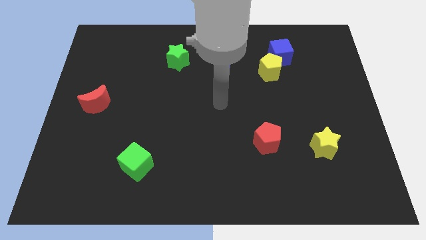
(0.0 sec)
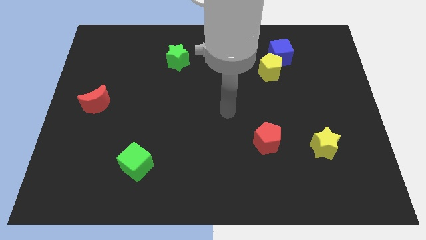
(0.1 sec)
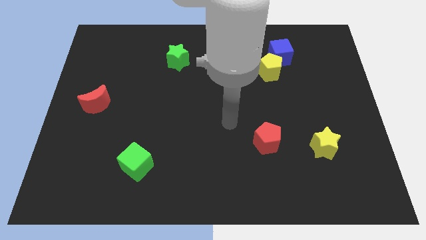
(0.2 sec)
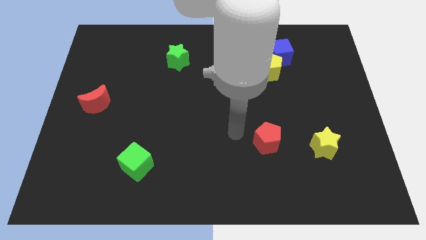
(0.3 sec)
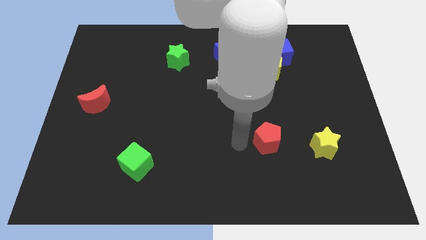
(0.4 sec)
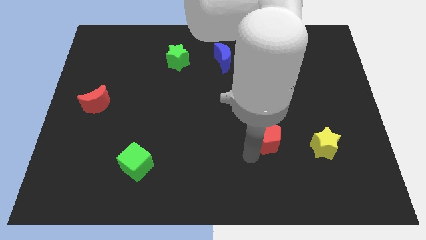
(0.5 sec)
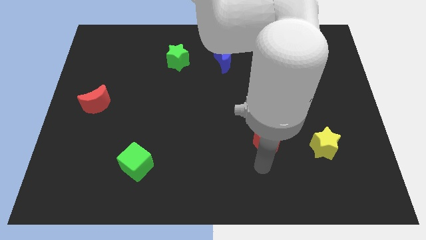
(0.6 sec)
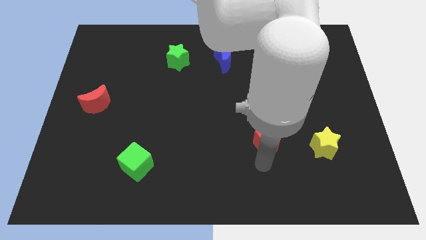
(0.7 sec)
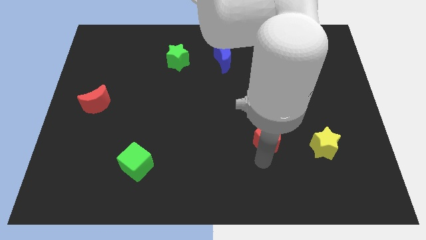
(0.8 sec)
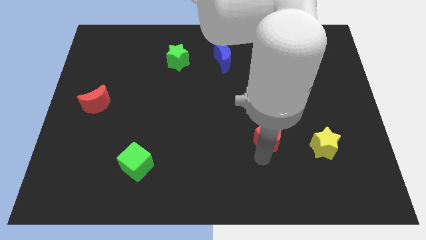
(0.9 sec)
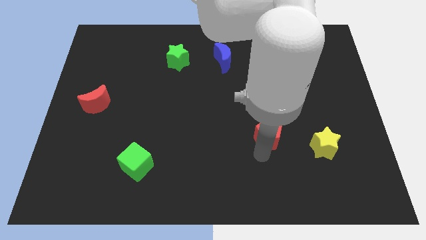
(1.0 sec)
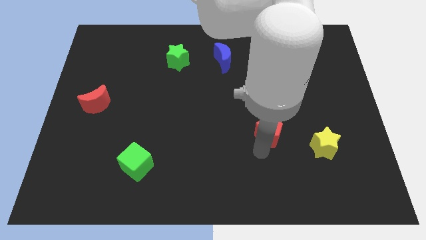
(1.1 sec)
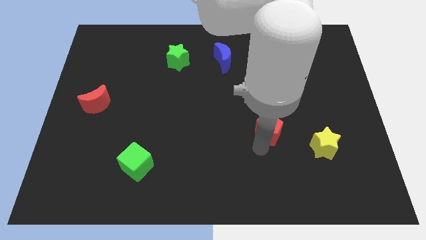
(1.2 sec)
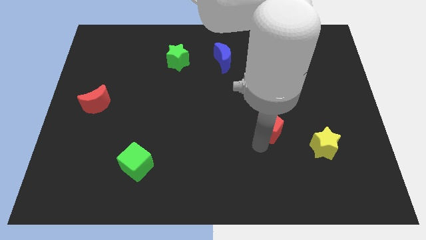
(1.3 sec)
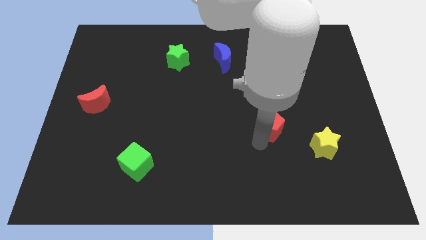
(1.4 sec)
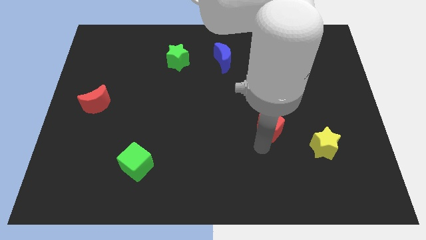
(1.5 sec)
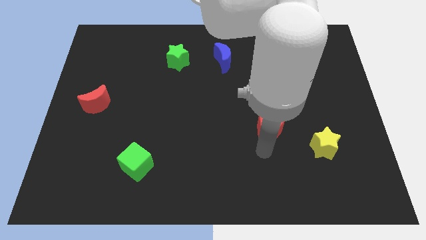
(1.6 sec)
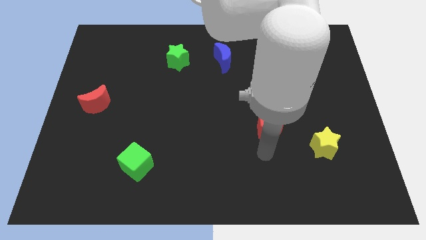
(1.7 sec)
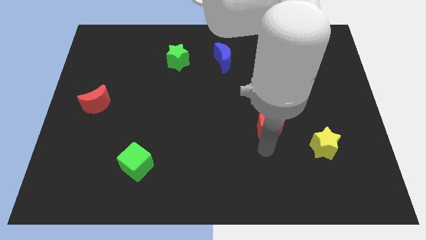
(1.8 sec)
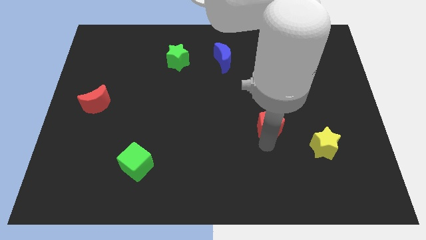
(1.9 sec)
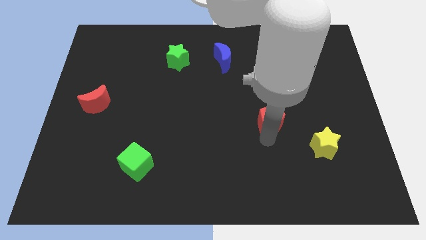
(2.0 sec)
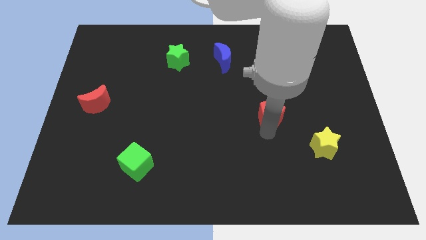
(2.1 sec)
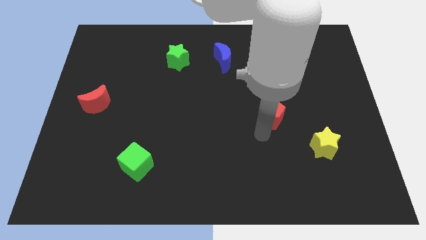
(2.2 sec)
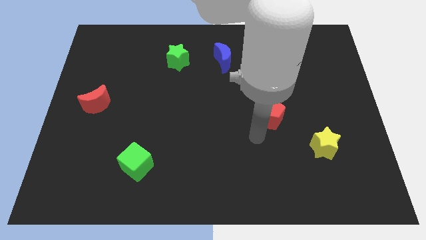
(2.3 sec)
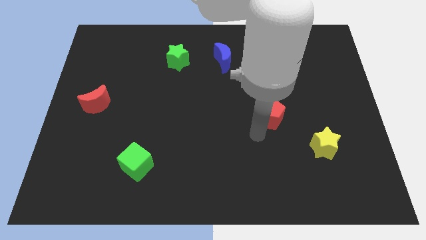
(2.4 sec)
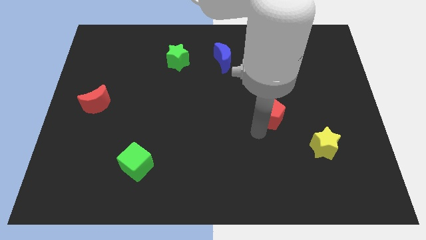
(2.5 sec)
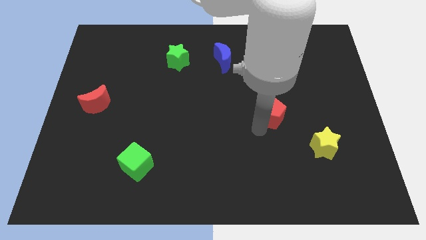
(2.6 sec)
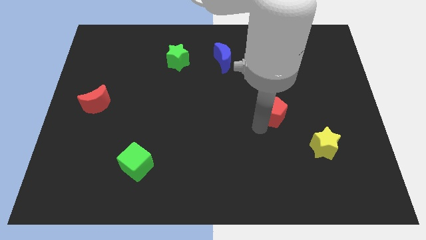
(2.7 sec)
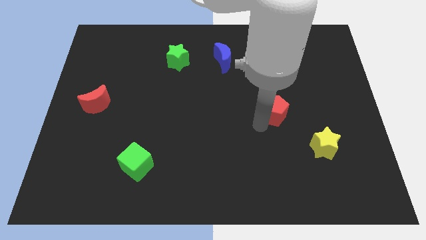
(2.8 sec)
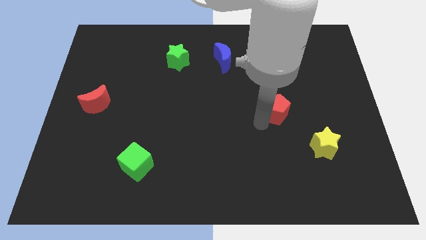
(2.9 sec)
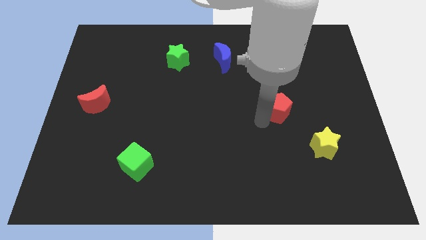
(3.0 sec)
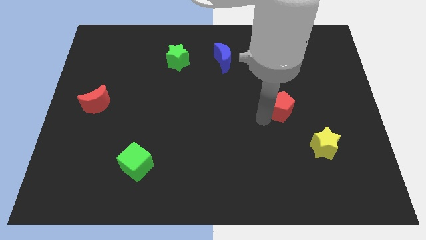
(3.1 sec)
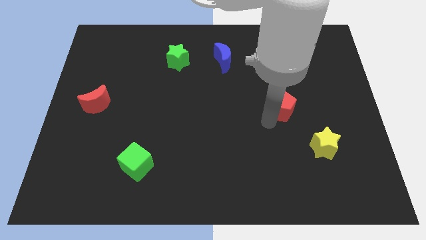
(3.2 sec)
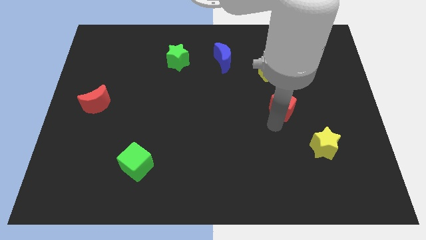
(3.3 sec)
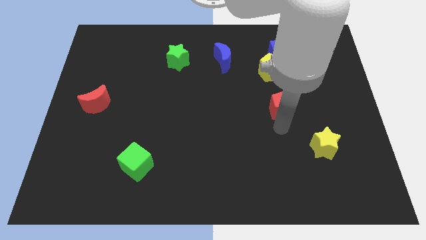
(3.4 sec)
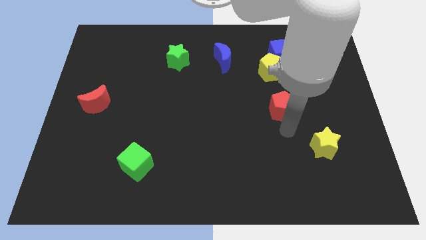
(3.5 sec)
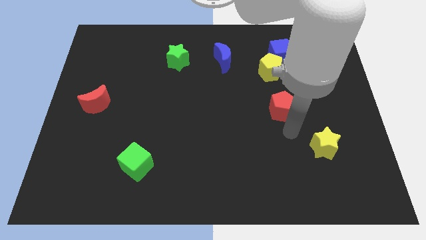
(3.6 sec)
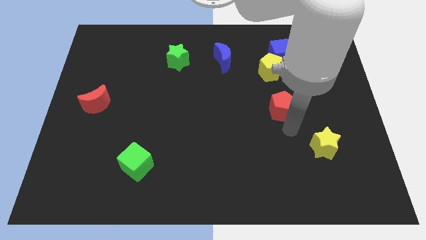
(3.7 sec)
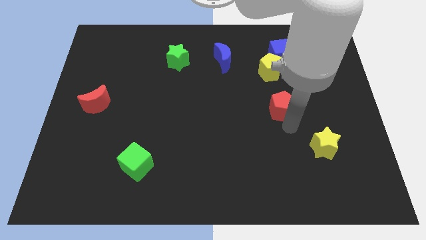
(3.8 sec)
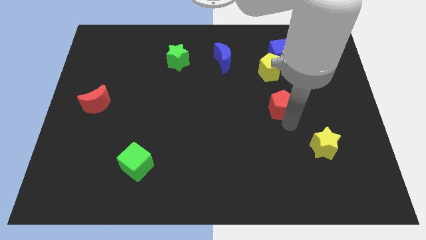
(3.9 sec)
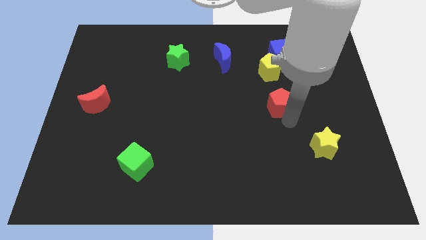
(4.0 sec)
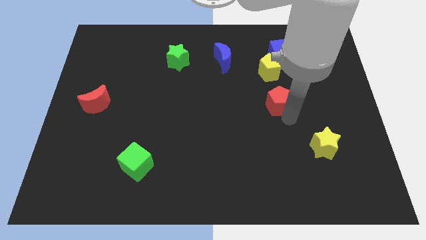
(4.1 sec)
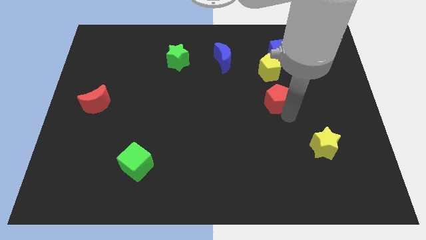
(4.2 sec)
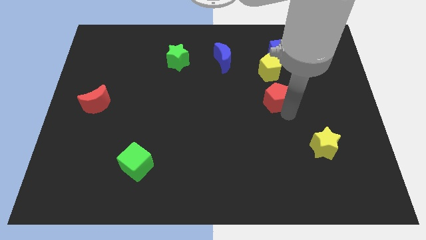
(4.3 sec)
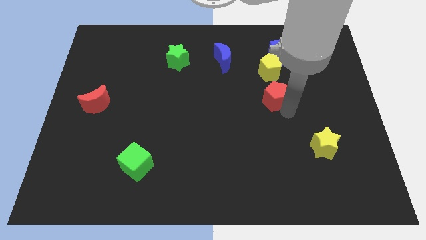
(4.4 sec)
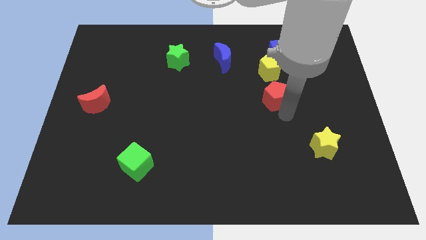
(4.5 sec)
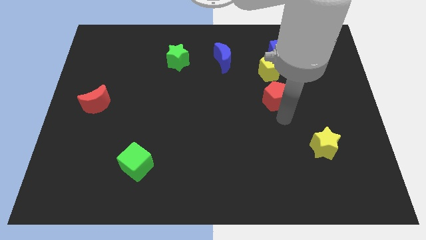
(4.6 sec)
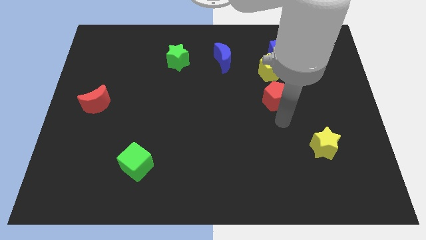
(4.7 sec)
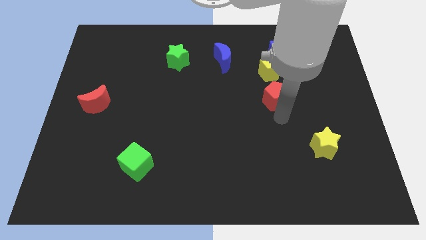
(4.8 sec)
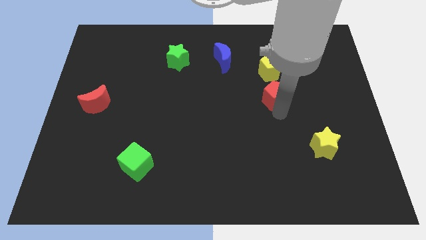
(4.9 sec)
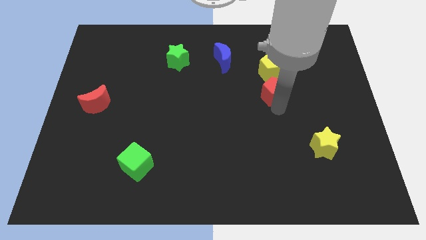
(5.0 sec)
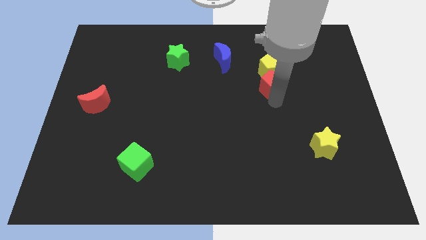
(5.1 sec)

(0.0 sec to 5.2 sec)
slide the red pentagon to the yellow pentagon

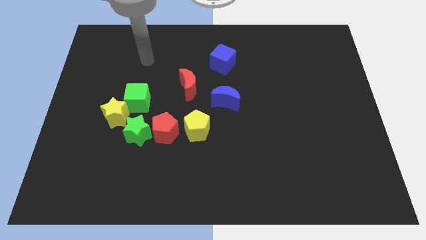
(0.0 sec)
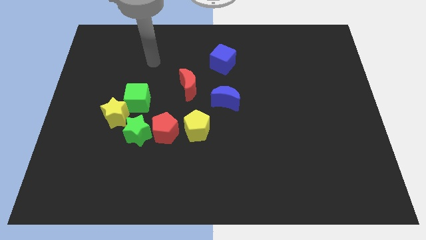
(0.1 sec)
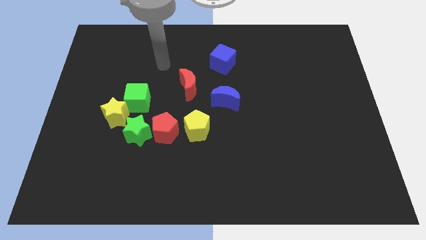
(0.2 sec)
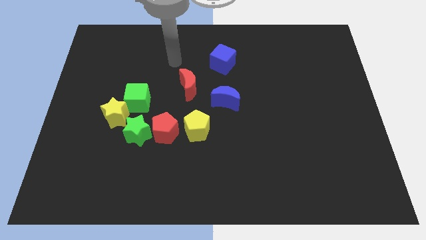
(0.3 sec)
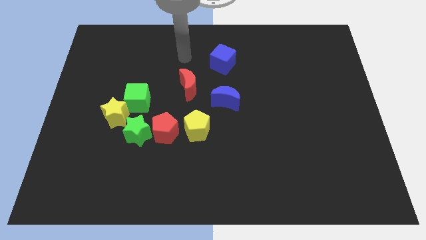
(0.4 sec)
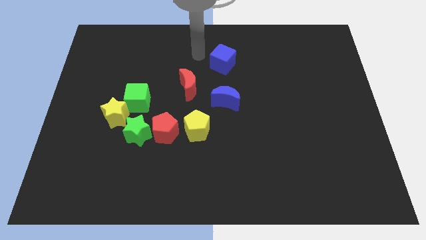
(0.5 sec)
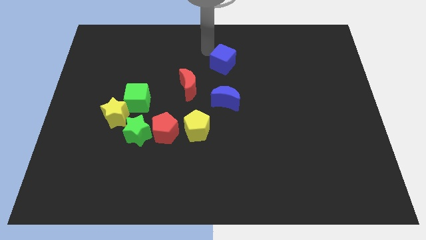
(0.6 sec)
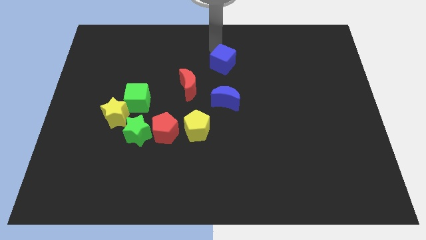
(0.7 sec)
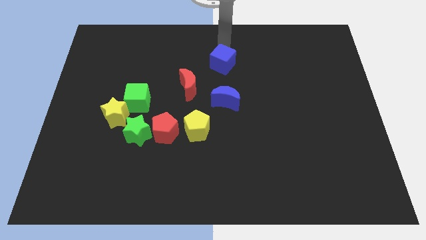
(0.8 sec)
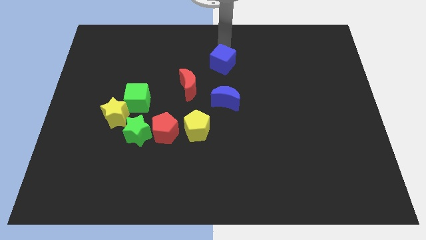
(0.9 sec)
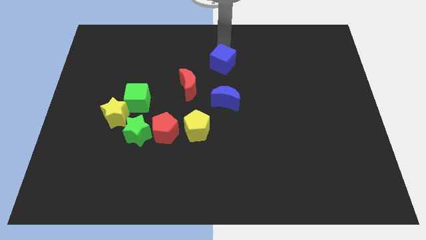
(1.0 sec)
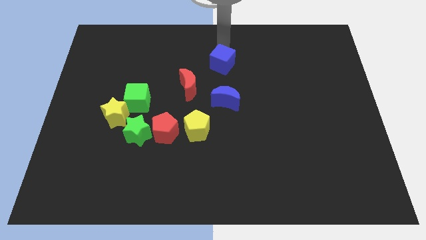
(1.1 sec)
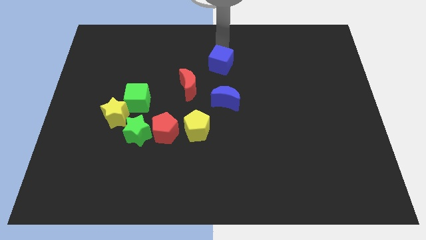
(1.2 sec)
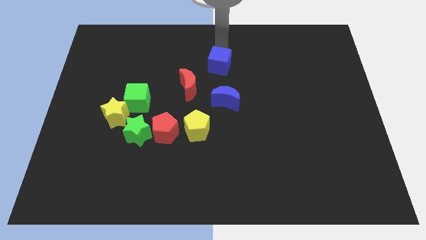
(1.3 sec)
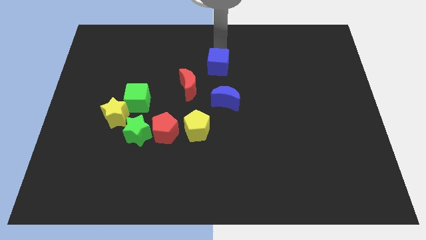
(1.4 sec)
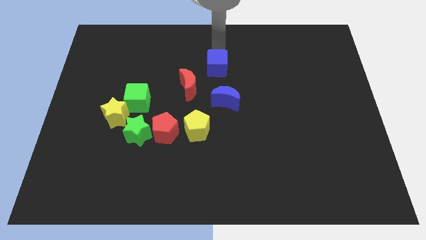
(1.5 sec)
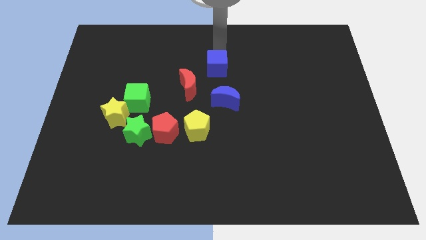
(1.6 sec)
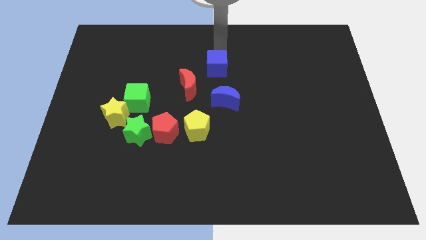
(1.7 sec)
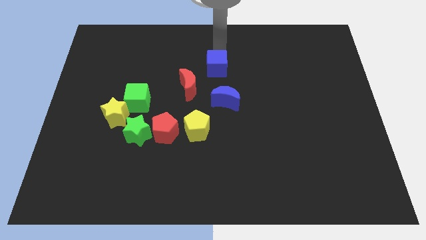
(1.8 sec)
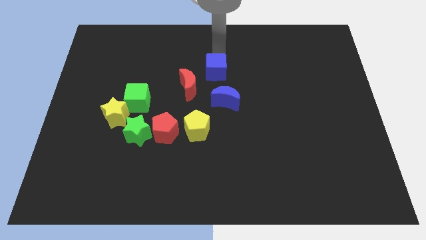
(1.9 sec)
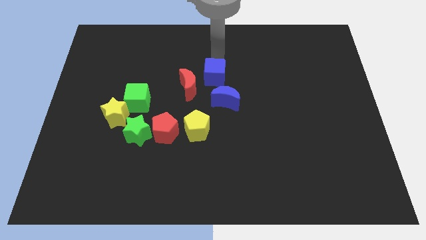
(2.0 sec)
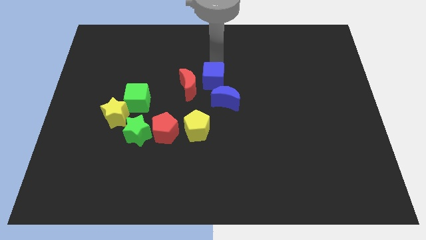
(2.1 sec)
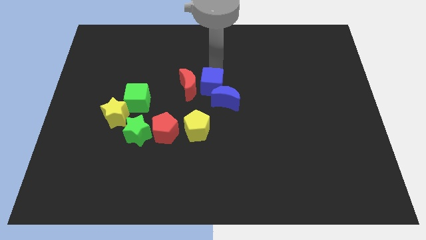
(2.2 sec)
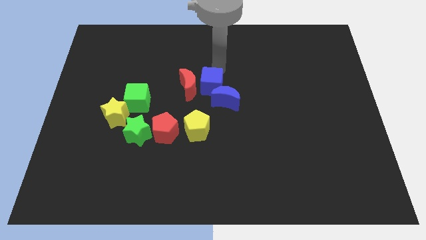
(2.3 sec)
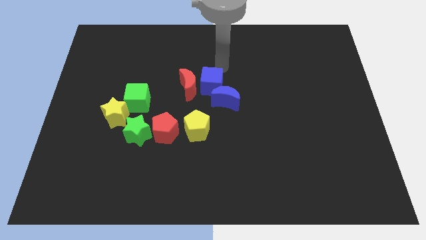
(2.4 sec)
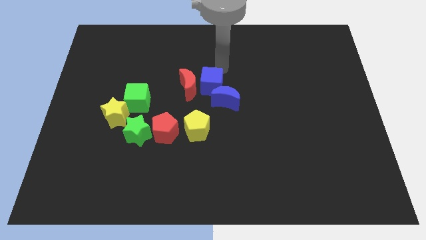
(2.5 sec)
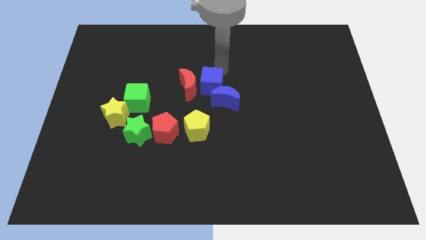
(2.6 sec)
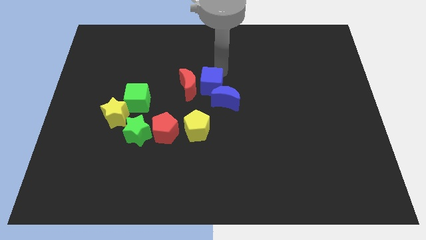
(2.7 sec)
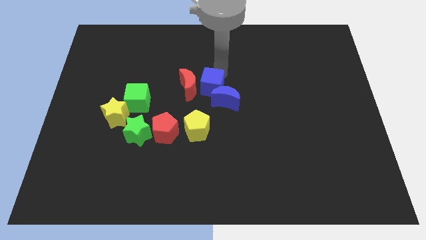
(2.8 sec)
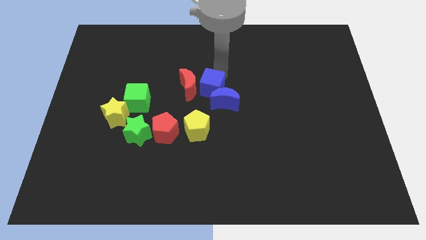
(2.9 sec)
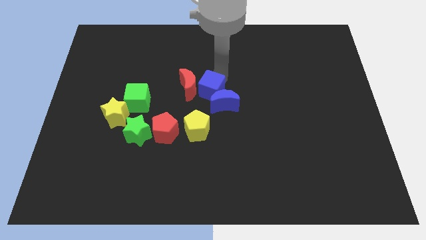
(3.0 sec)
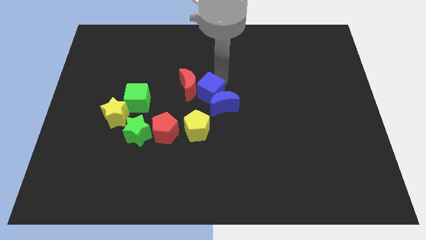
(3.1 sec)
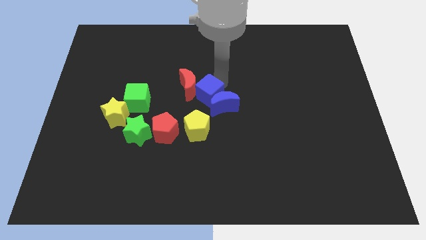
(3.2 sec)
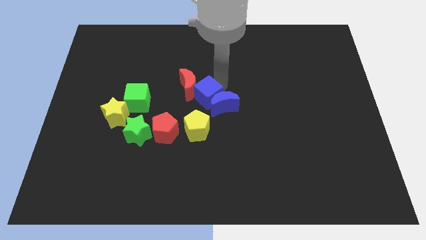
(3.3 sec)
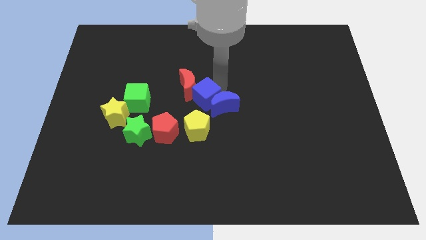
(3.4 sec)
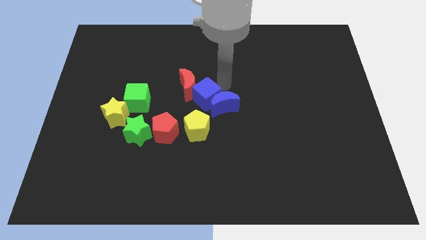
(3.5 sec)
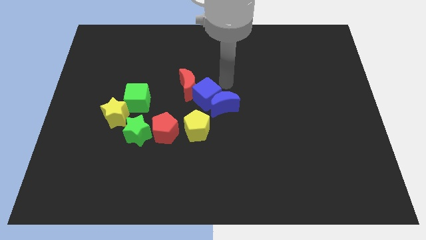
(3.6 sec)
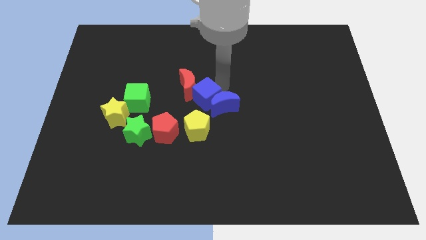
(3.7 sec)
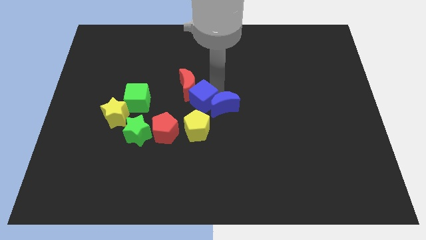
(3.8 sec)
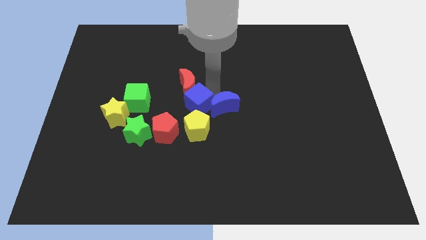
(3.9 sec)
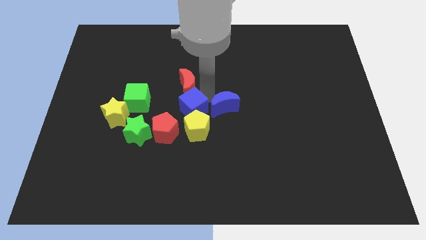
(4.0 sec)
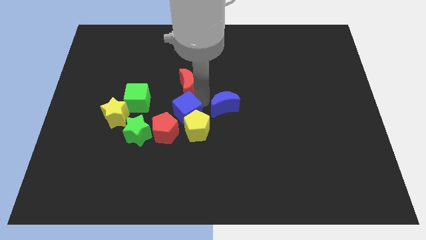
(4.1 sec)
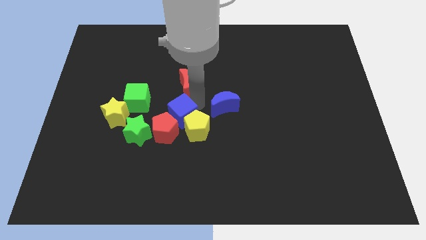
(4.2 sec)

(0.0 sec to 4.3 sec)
put the blue cube to the red pentagon
